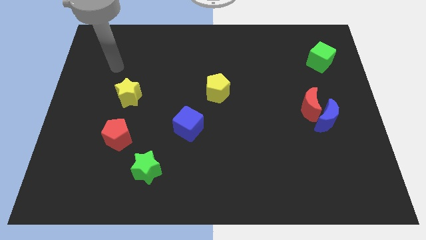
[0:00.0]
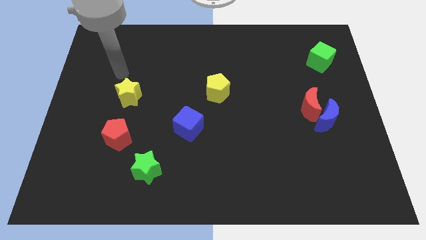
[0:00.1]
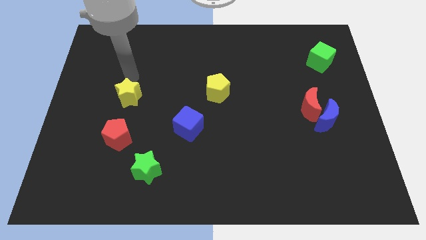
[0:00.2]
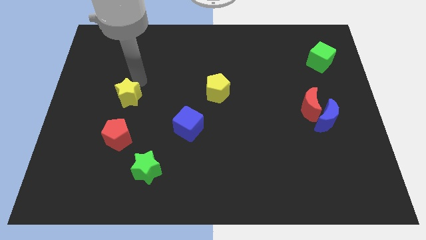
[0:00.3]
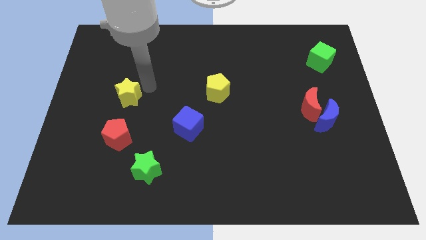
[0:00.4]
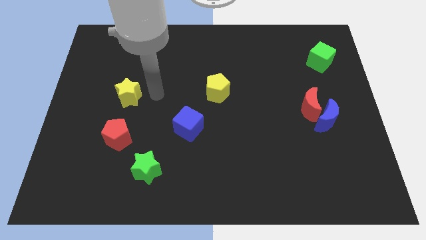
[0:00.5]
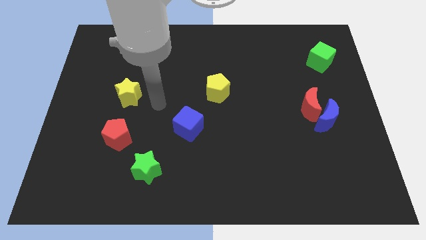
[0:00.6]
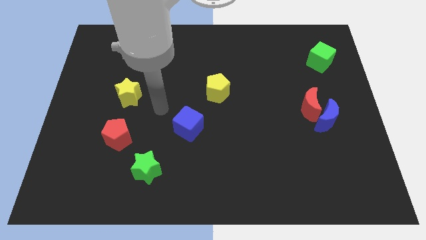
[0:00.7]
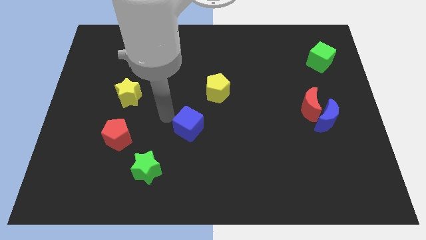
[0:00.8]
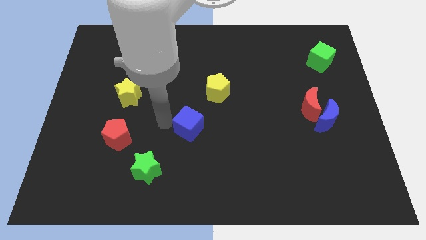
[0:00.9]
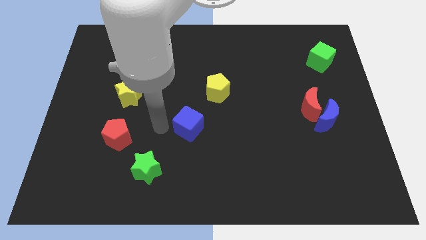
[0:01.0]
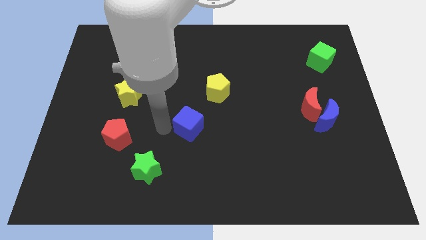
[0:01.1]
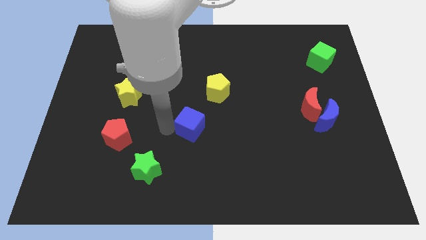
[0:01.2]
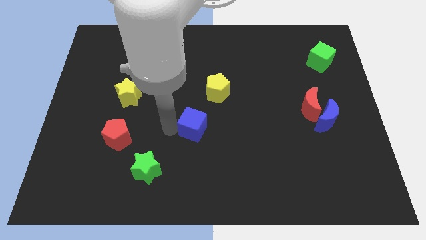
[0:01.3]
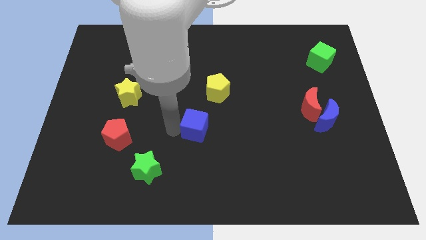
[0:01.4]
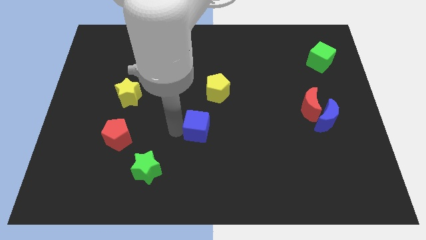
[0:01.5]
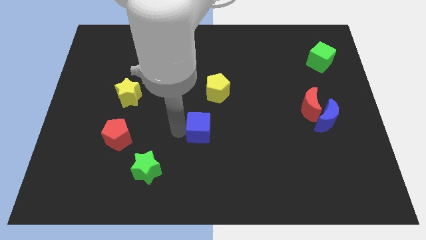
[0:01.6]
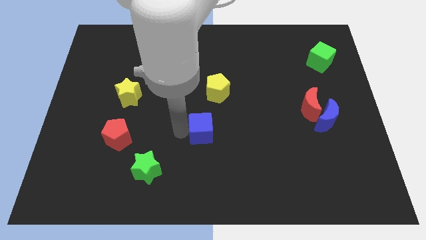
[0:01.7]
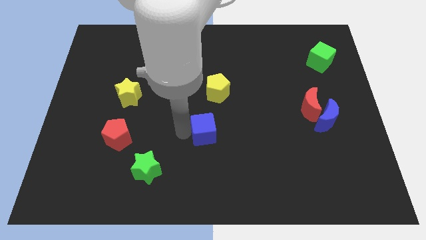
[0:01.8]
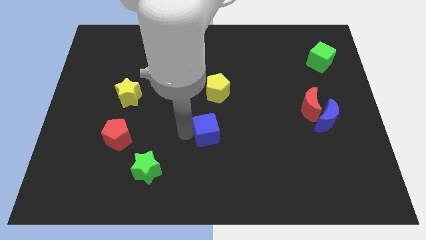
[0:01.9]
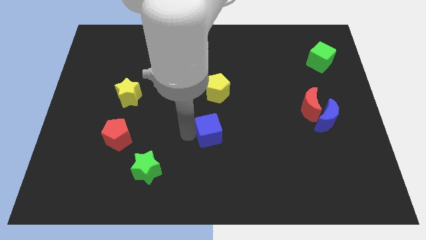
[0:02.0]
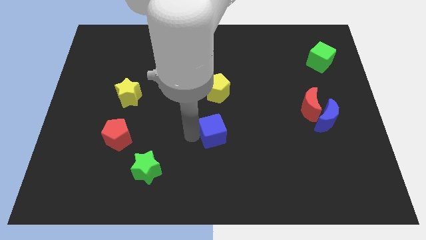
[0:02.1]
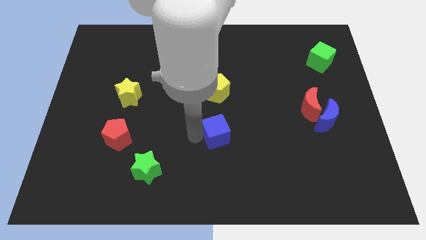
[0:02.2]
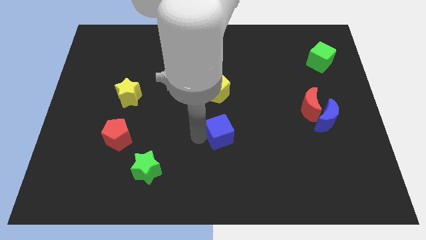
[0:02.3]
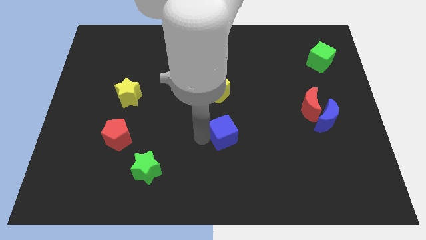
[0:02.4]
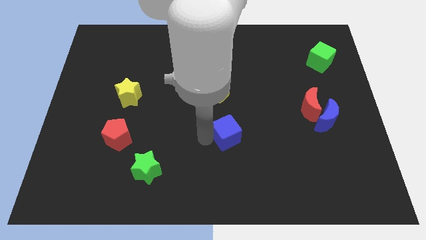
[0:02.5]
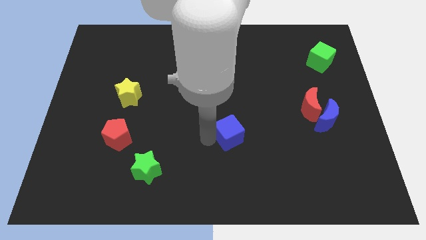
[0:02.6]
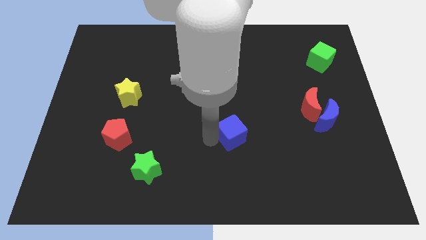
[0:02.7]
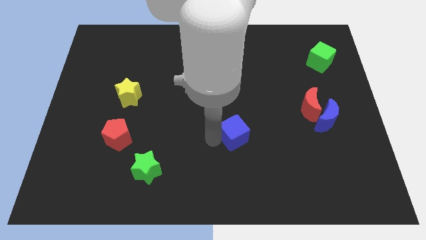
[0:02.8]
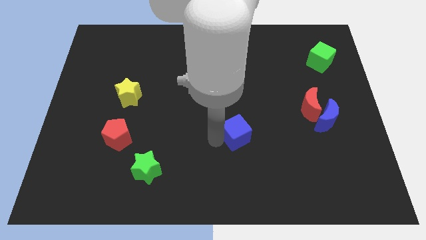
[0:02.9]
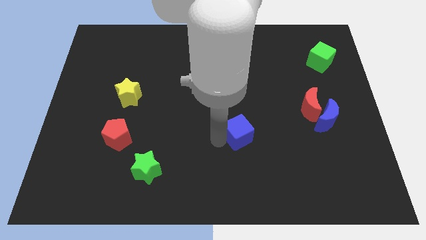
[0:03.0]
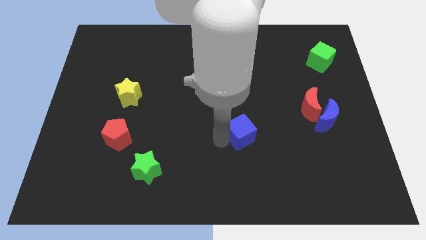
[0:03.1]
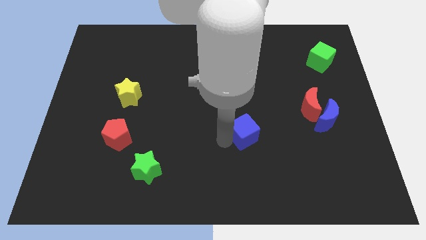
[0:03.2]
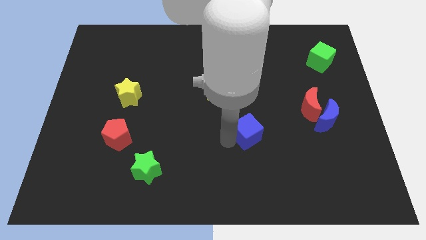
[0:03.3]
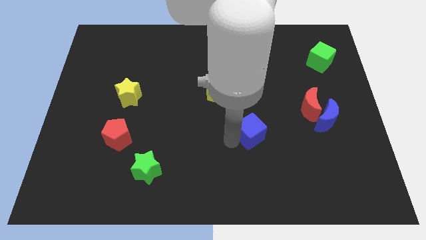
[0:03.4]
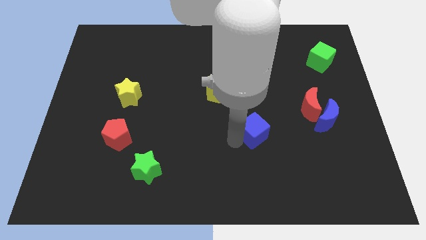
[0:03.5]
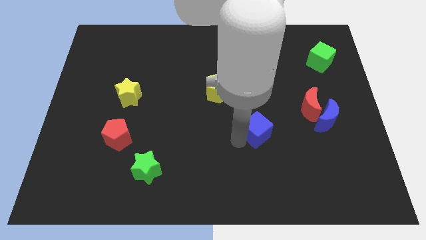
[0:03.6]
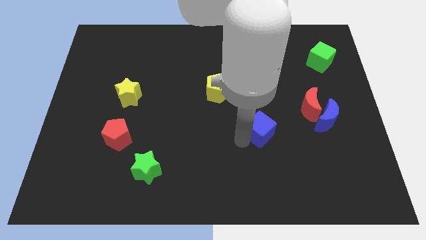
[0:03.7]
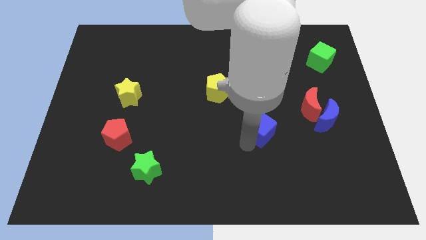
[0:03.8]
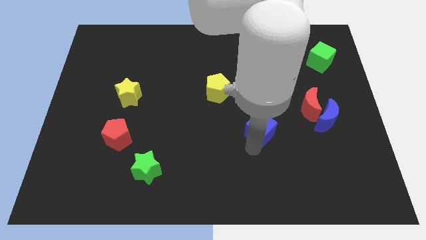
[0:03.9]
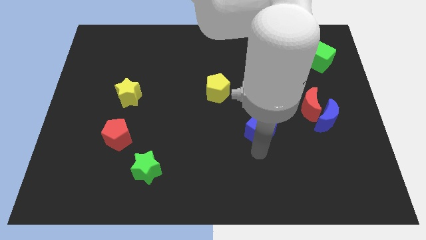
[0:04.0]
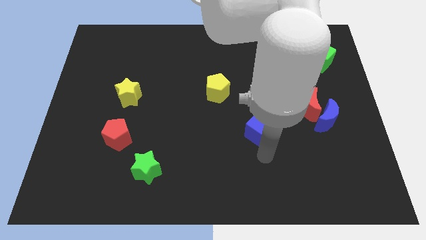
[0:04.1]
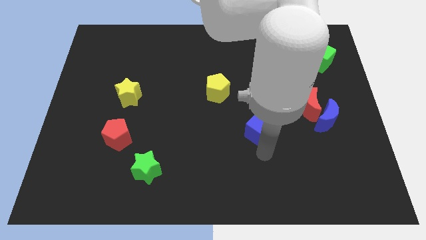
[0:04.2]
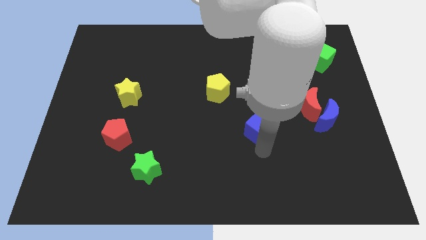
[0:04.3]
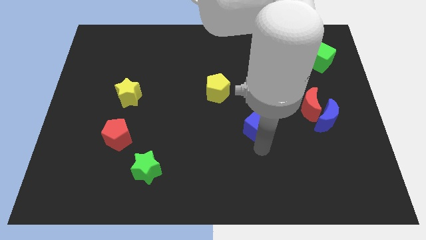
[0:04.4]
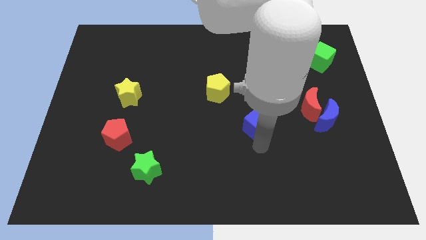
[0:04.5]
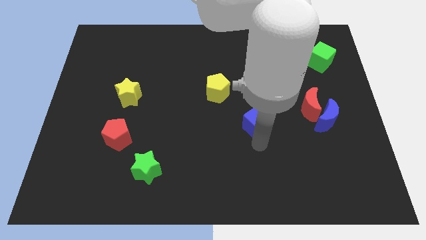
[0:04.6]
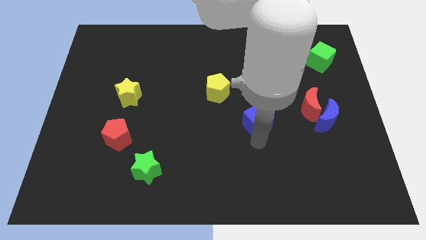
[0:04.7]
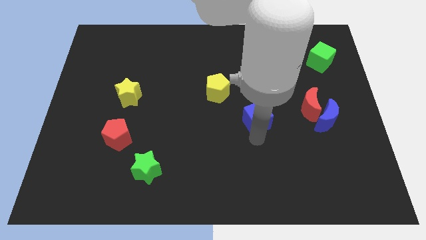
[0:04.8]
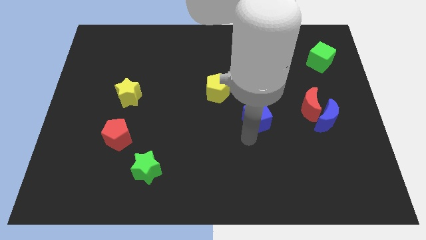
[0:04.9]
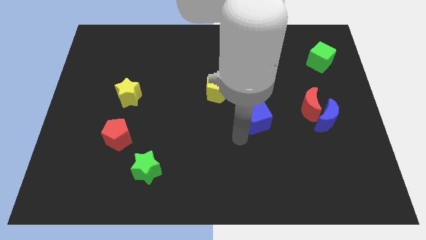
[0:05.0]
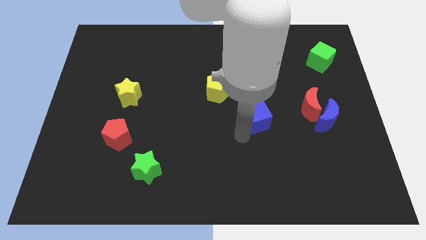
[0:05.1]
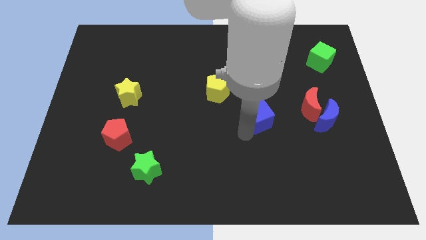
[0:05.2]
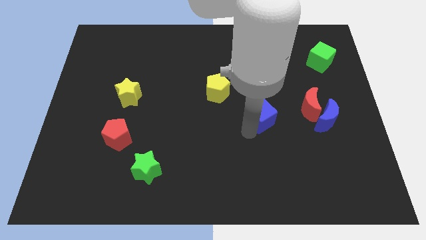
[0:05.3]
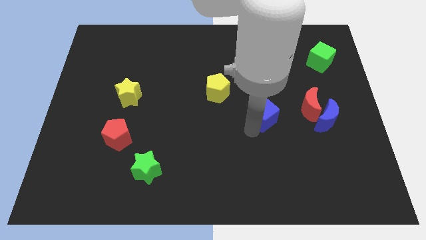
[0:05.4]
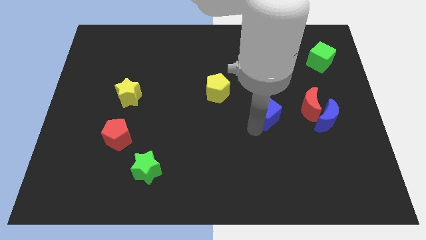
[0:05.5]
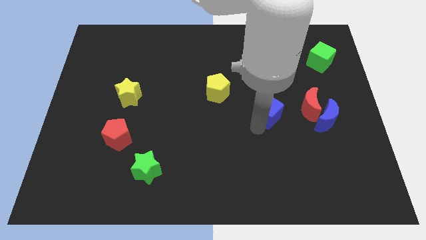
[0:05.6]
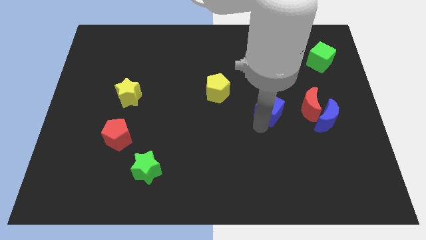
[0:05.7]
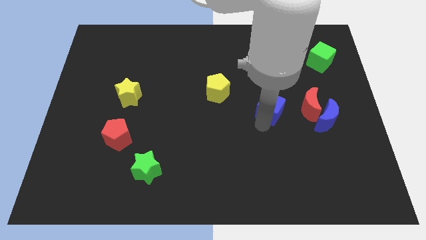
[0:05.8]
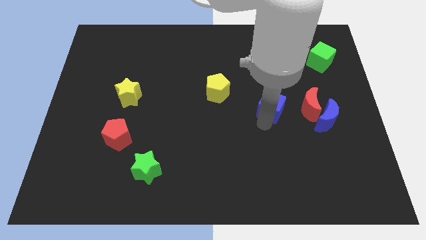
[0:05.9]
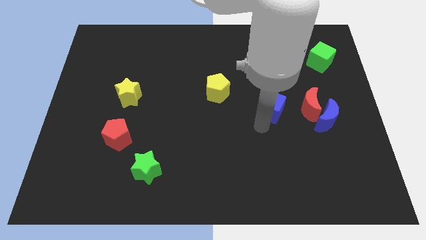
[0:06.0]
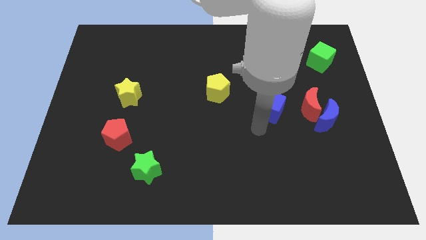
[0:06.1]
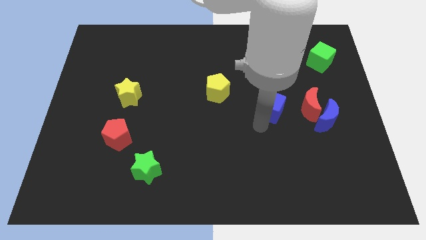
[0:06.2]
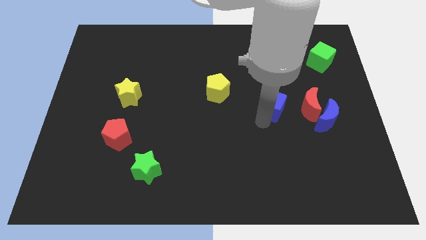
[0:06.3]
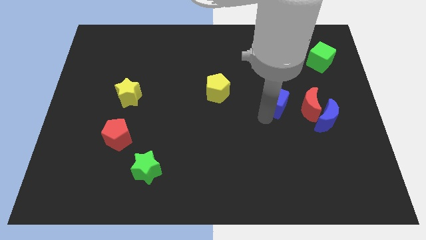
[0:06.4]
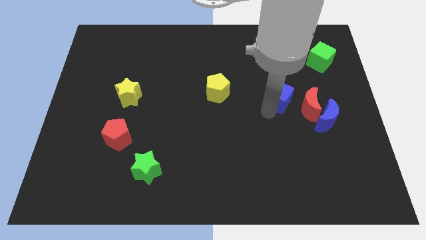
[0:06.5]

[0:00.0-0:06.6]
push the blue cube diagonally up and to the left of the red moon

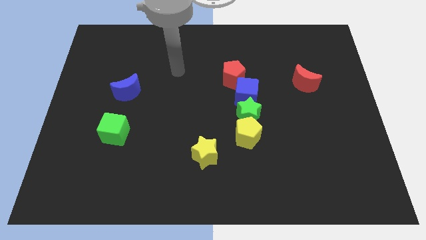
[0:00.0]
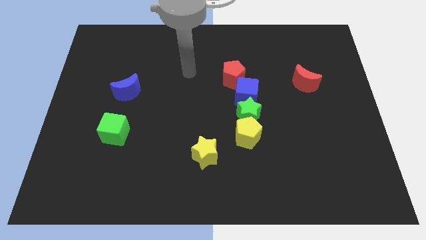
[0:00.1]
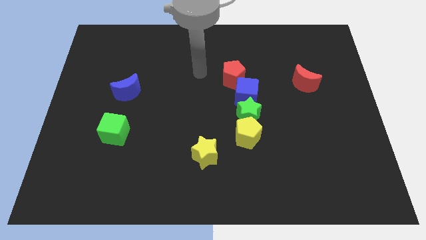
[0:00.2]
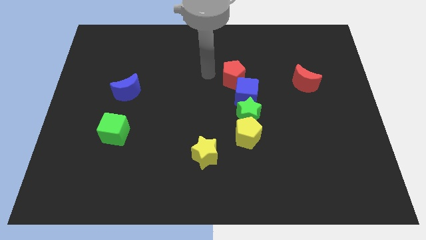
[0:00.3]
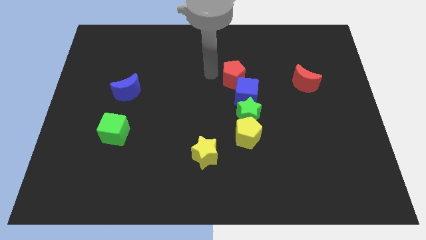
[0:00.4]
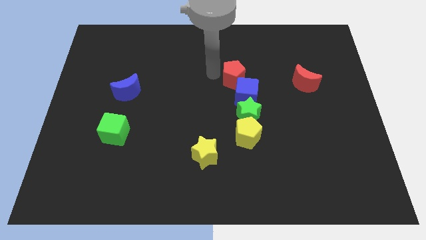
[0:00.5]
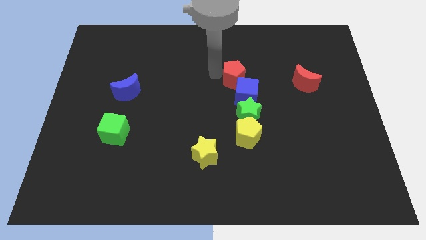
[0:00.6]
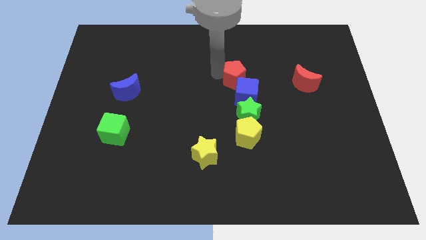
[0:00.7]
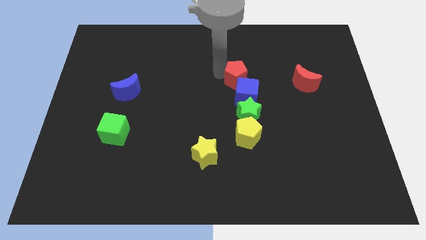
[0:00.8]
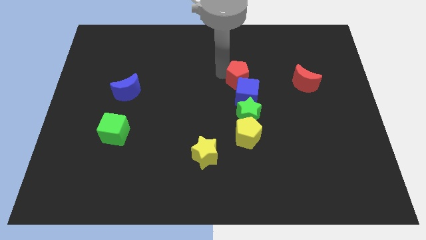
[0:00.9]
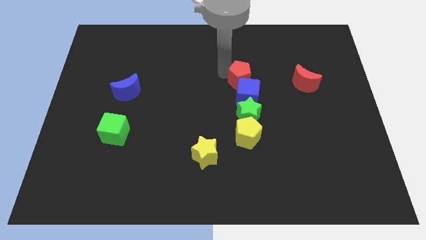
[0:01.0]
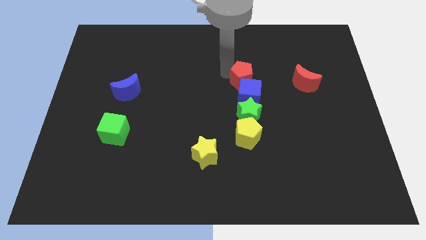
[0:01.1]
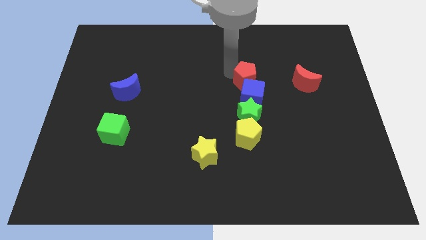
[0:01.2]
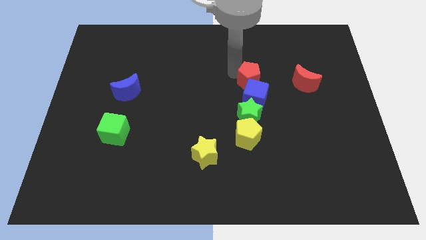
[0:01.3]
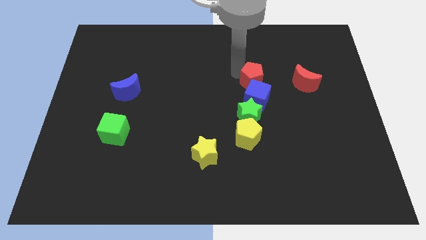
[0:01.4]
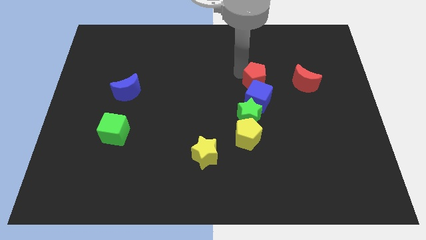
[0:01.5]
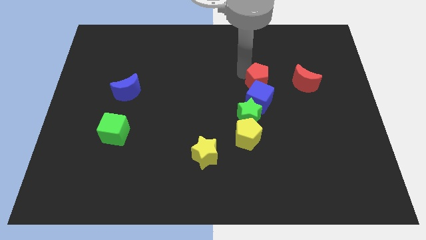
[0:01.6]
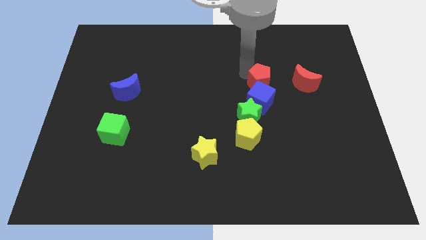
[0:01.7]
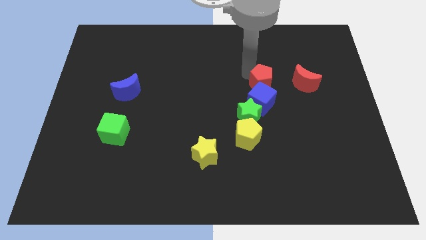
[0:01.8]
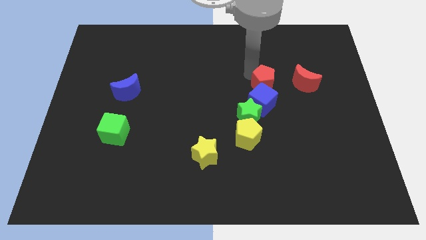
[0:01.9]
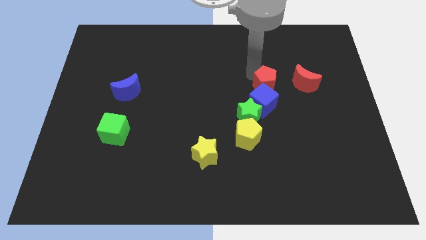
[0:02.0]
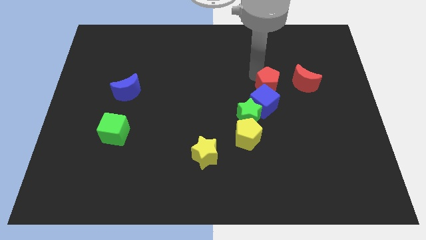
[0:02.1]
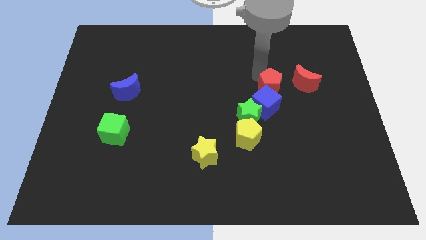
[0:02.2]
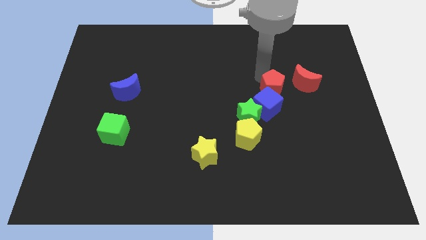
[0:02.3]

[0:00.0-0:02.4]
move the red pentagon to the bottom left side of the red moon
